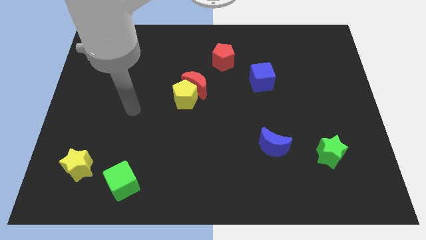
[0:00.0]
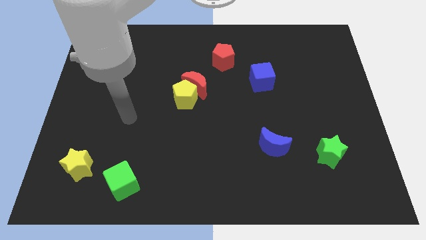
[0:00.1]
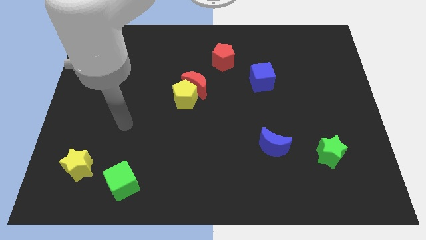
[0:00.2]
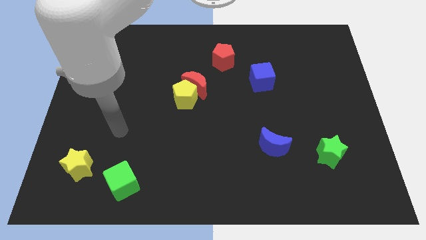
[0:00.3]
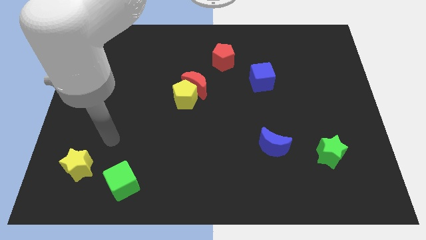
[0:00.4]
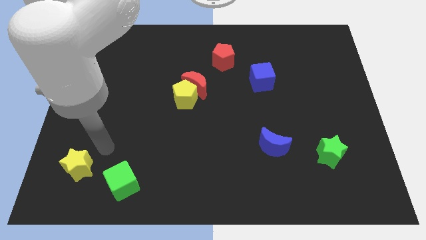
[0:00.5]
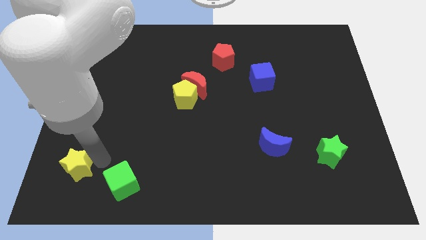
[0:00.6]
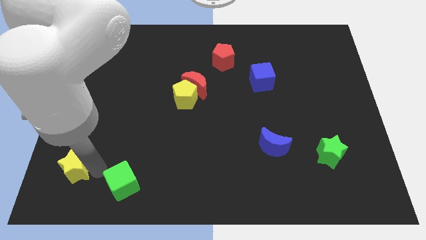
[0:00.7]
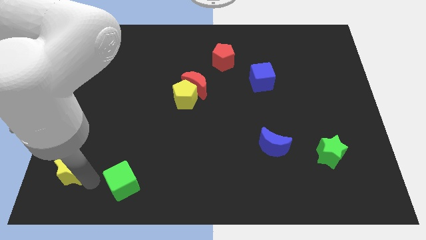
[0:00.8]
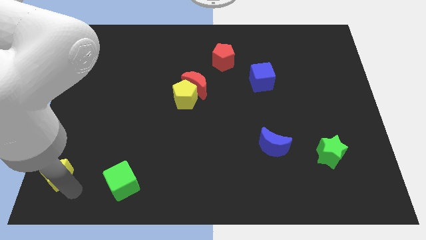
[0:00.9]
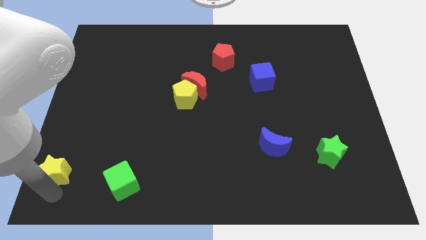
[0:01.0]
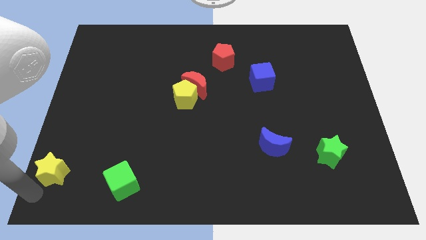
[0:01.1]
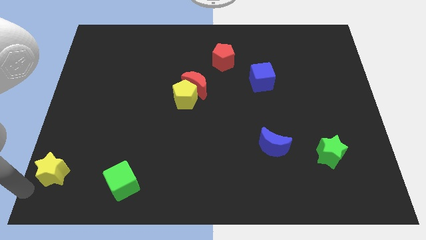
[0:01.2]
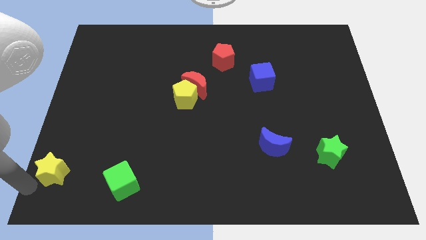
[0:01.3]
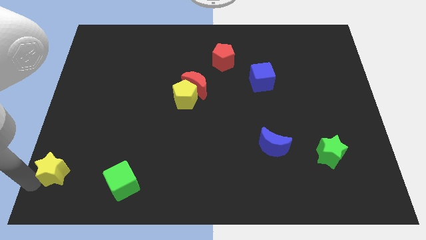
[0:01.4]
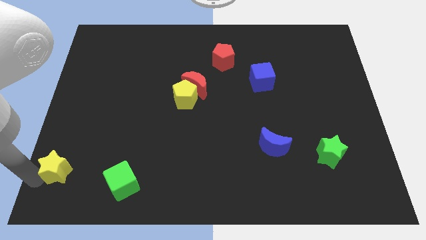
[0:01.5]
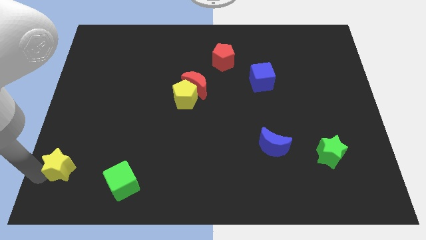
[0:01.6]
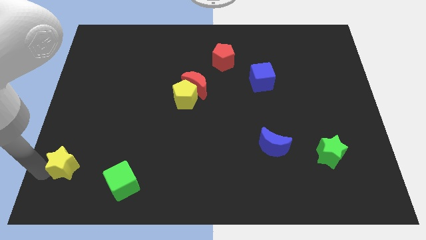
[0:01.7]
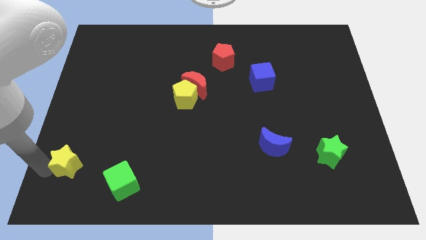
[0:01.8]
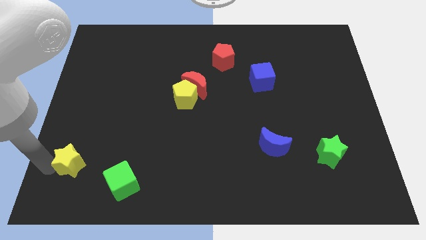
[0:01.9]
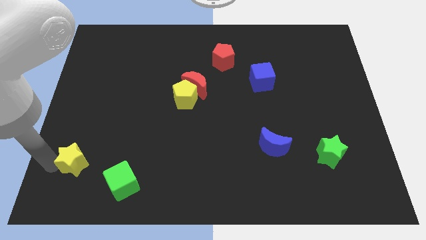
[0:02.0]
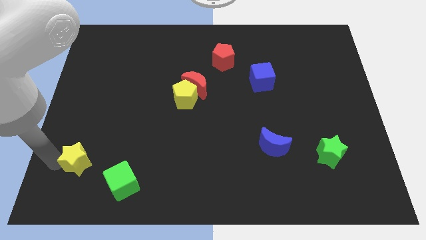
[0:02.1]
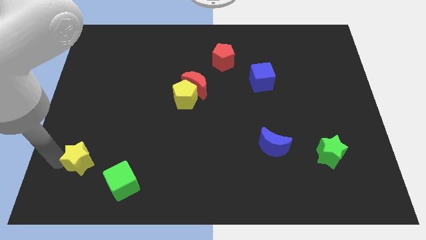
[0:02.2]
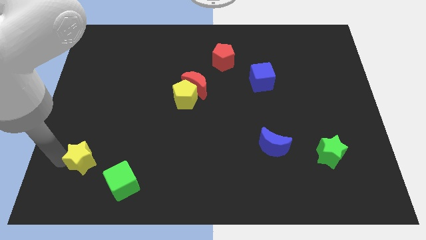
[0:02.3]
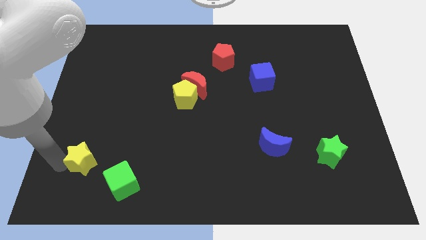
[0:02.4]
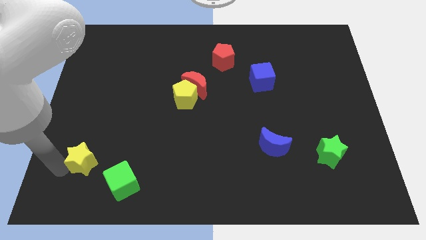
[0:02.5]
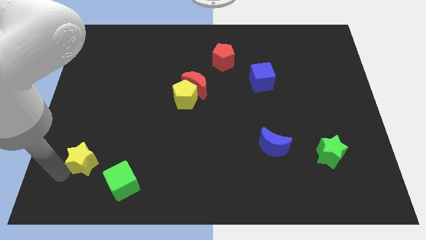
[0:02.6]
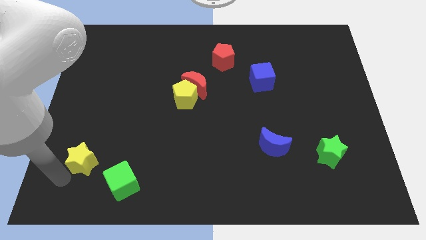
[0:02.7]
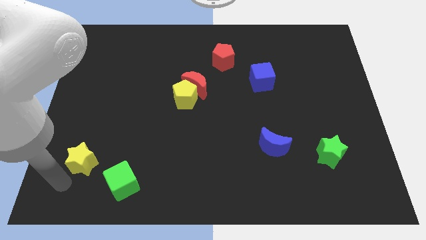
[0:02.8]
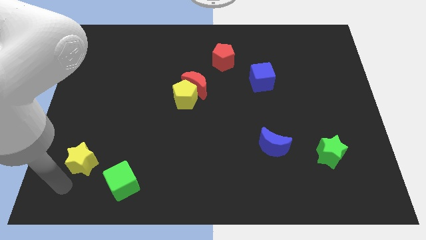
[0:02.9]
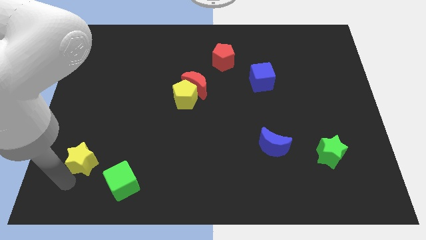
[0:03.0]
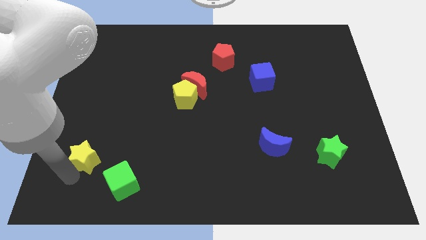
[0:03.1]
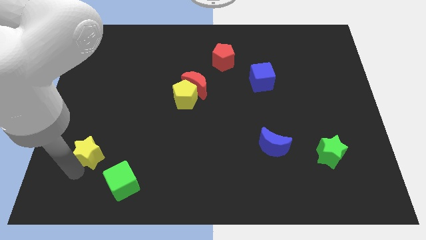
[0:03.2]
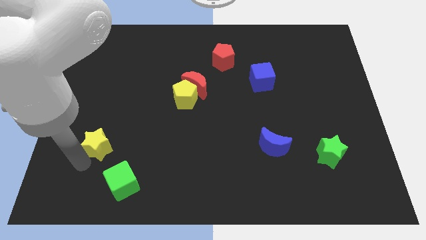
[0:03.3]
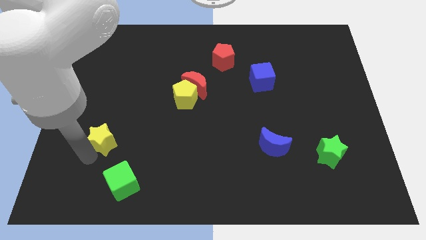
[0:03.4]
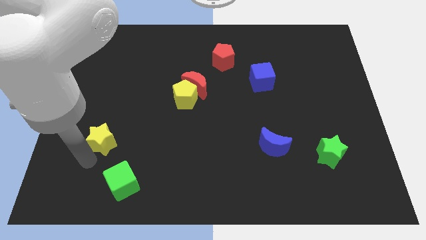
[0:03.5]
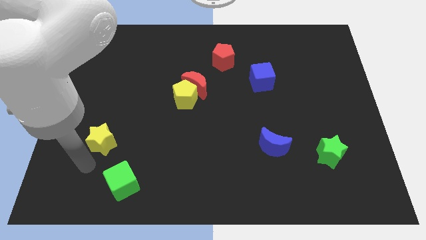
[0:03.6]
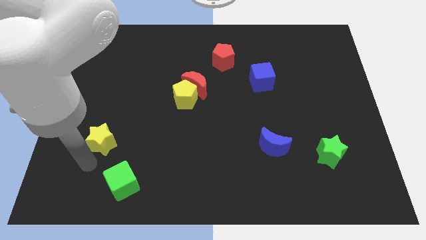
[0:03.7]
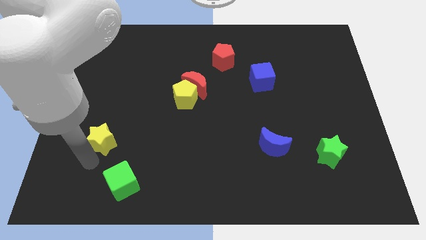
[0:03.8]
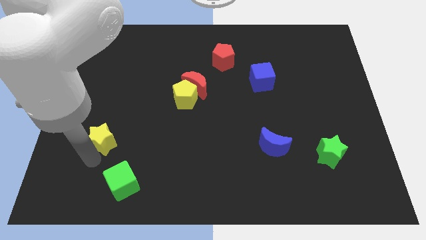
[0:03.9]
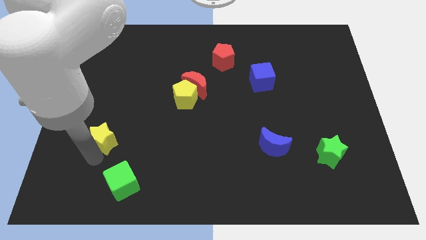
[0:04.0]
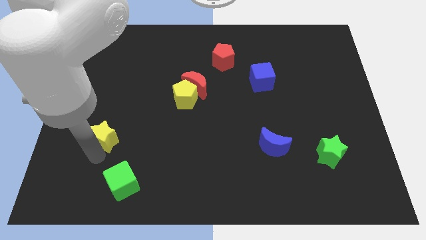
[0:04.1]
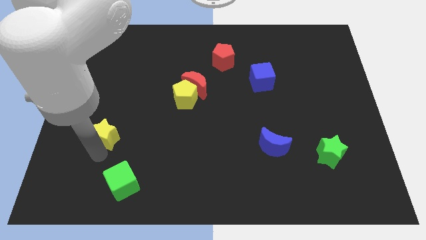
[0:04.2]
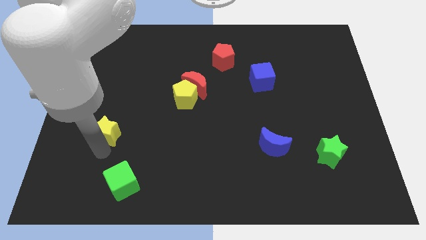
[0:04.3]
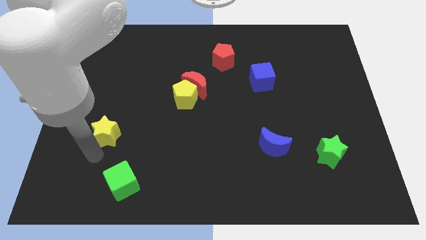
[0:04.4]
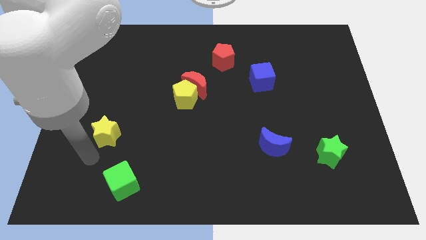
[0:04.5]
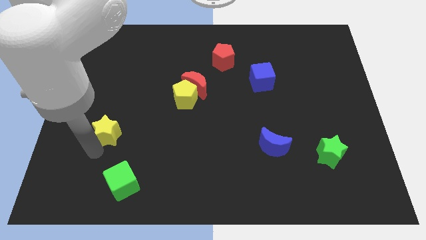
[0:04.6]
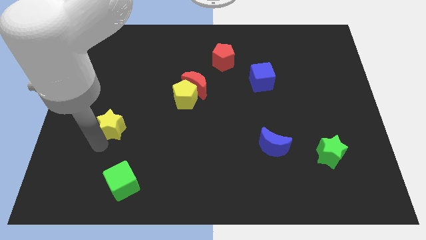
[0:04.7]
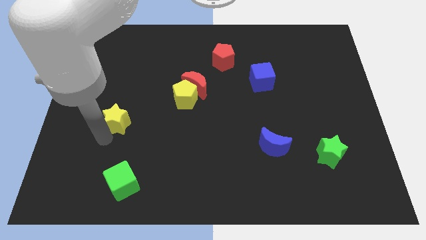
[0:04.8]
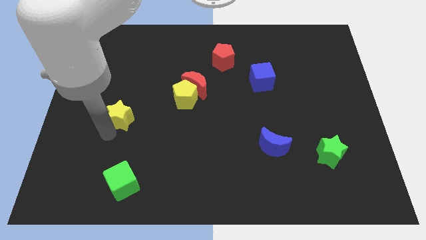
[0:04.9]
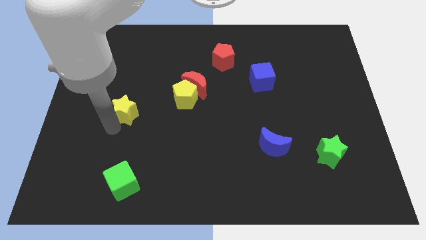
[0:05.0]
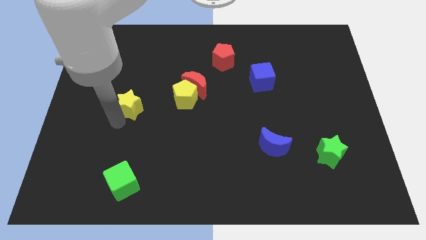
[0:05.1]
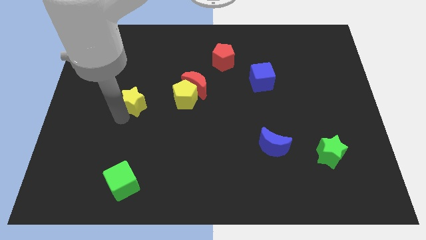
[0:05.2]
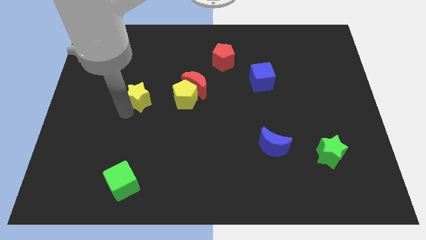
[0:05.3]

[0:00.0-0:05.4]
move the yellow star to the left side of the red moon

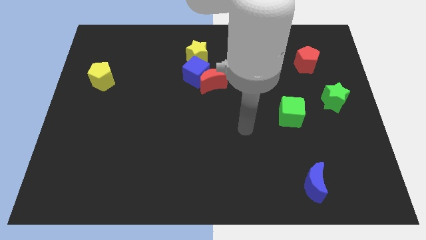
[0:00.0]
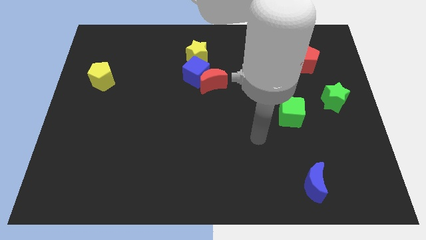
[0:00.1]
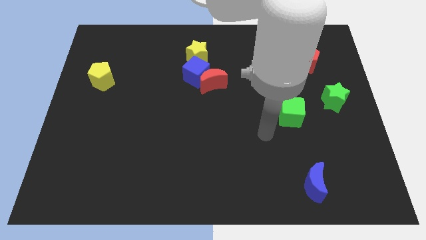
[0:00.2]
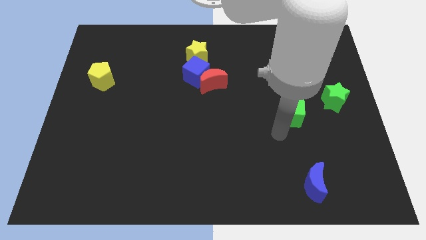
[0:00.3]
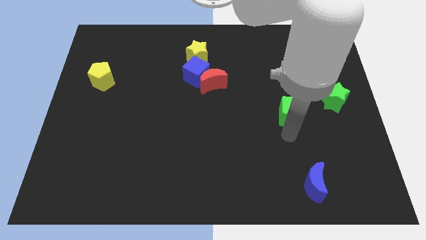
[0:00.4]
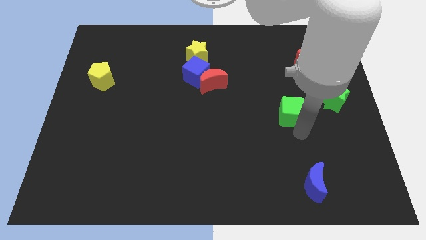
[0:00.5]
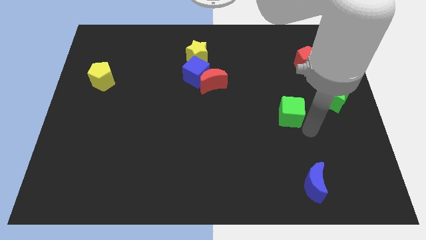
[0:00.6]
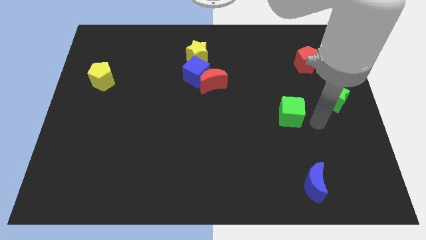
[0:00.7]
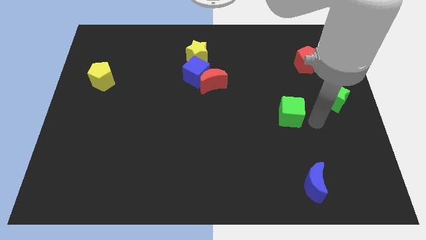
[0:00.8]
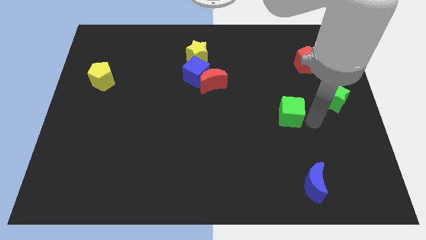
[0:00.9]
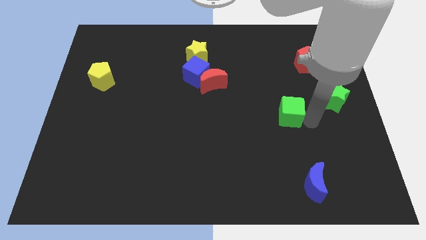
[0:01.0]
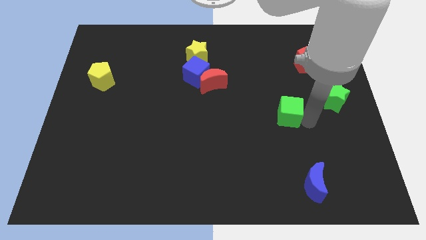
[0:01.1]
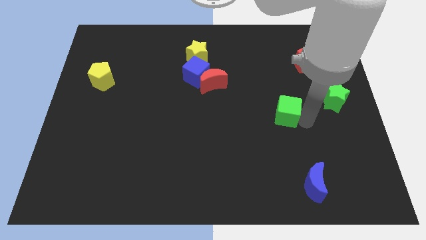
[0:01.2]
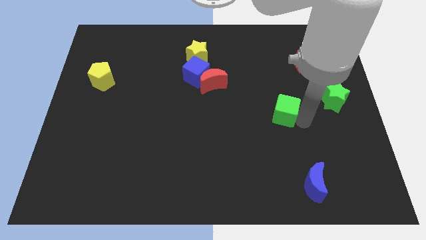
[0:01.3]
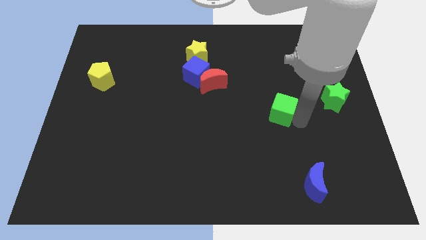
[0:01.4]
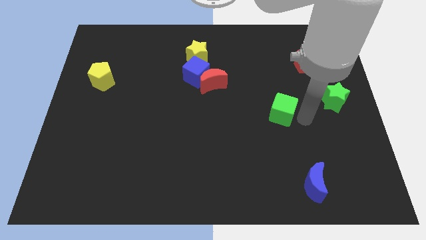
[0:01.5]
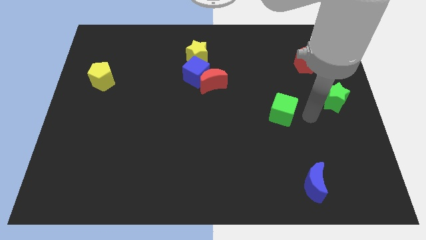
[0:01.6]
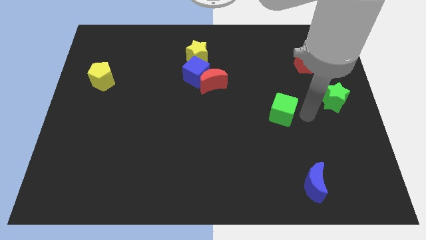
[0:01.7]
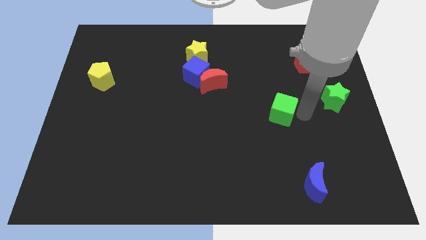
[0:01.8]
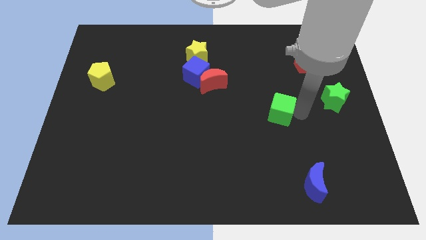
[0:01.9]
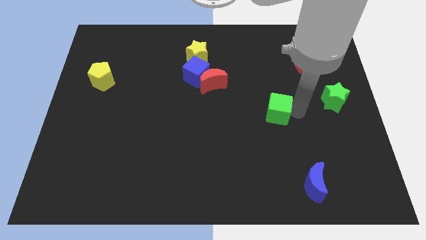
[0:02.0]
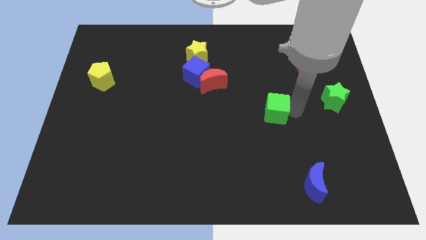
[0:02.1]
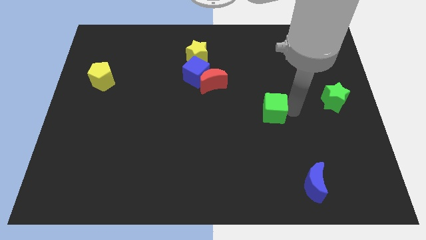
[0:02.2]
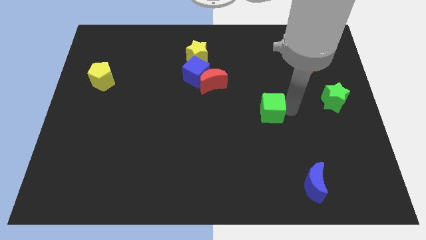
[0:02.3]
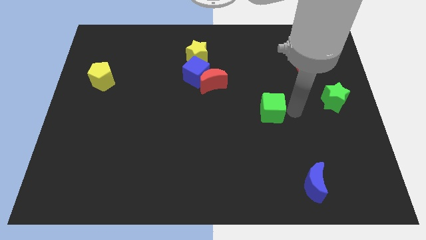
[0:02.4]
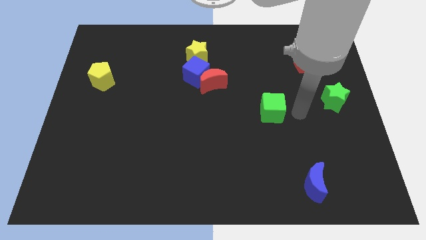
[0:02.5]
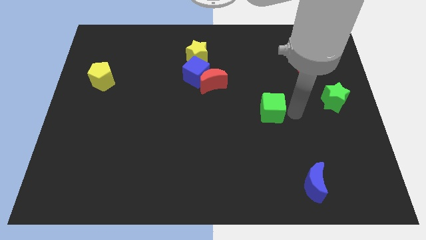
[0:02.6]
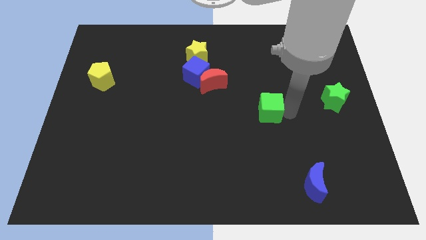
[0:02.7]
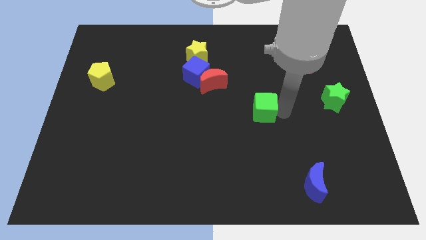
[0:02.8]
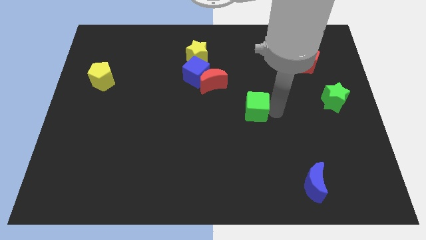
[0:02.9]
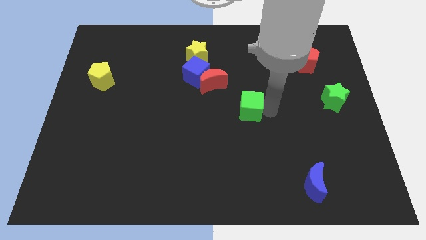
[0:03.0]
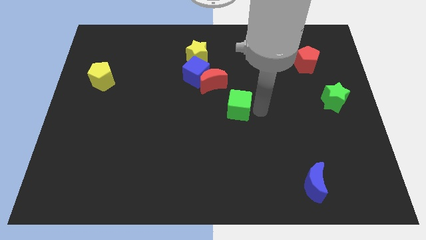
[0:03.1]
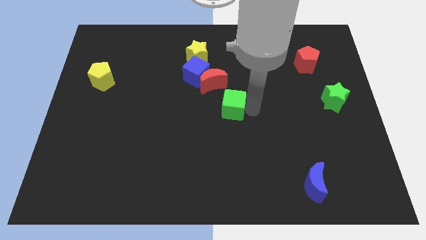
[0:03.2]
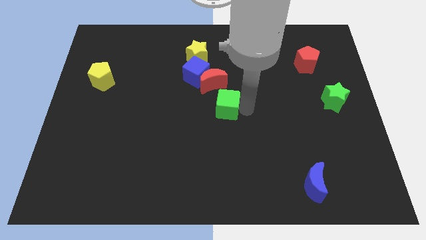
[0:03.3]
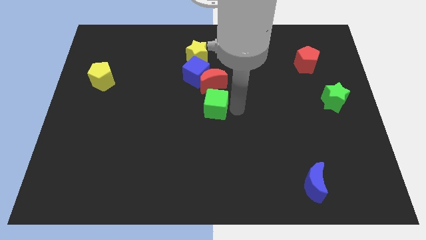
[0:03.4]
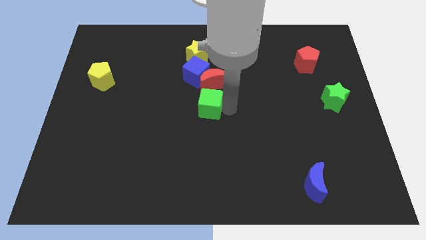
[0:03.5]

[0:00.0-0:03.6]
put the green cube to the bottom left side of the red moon
